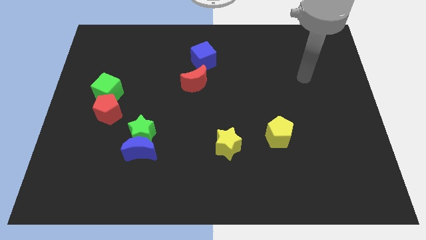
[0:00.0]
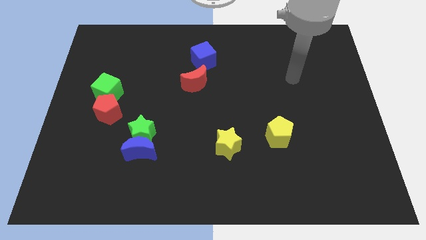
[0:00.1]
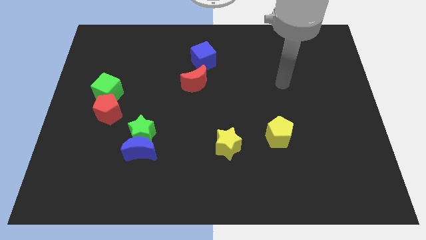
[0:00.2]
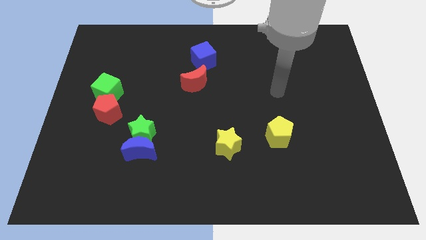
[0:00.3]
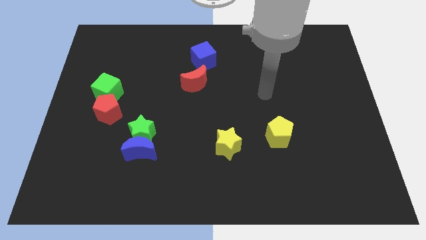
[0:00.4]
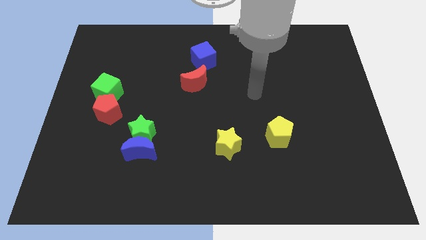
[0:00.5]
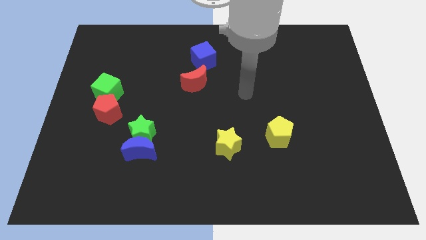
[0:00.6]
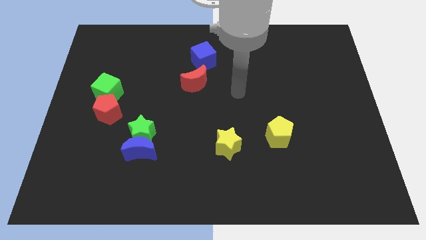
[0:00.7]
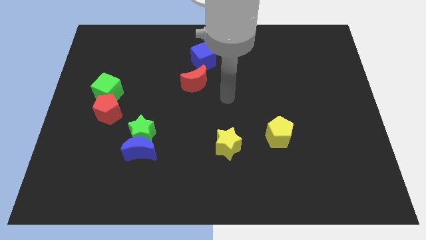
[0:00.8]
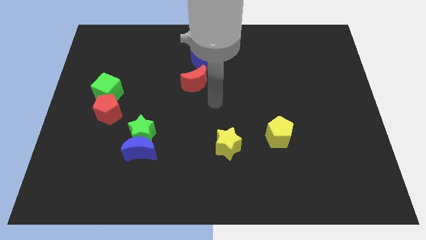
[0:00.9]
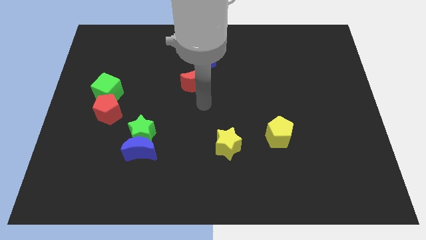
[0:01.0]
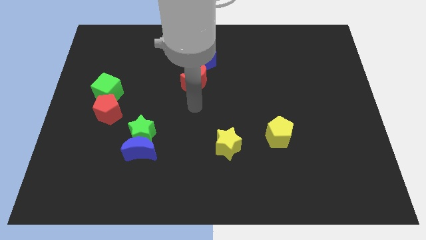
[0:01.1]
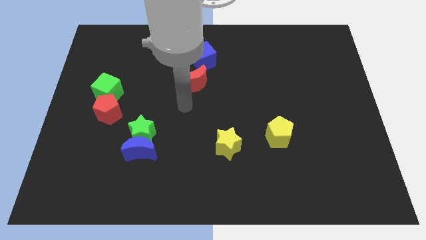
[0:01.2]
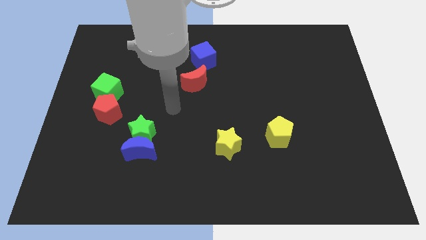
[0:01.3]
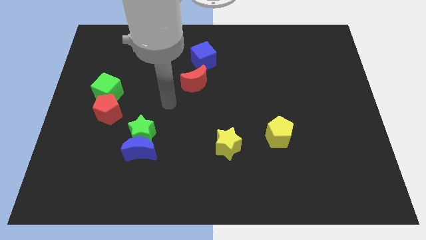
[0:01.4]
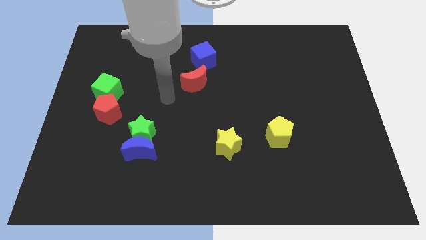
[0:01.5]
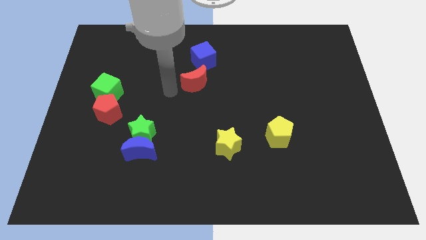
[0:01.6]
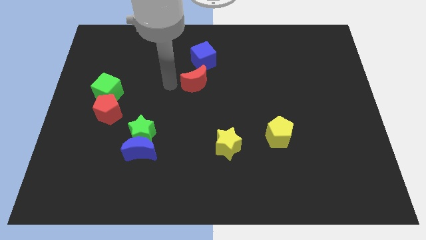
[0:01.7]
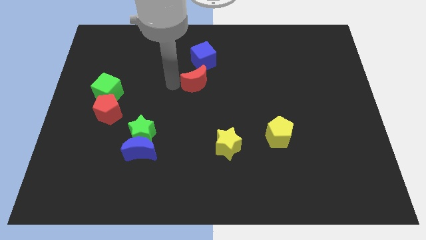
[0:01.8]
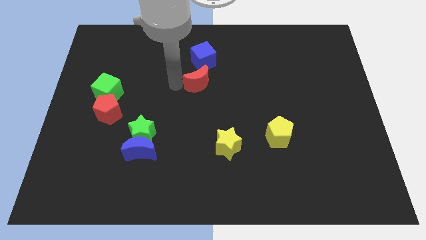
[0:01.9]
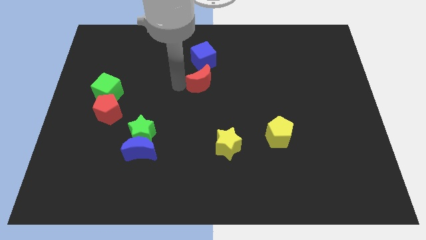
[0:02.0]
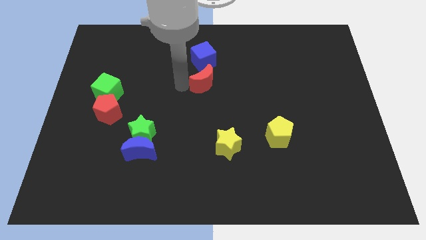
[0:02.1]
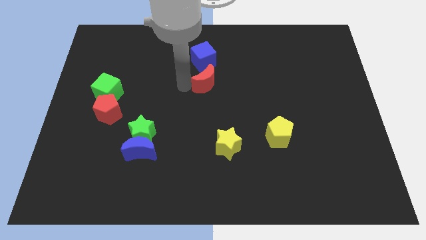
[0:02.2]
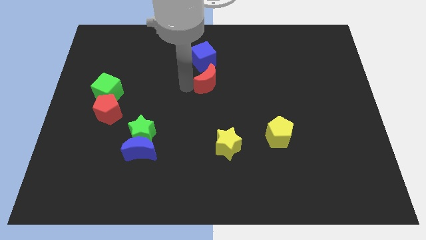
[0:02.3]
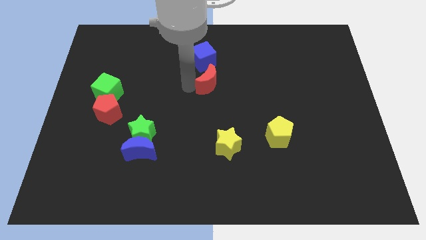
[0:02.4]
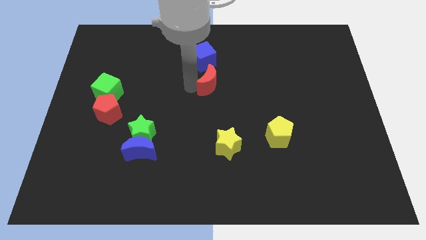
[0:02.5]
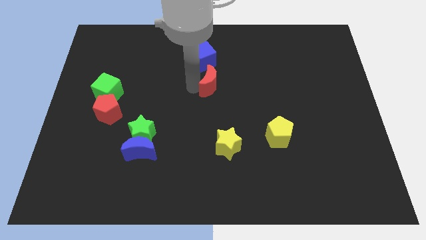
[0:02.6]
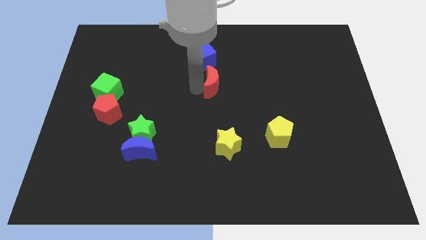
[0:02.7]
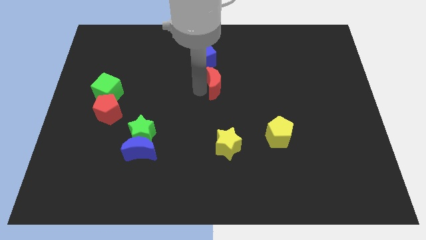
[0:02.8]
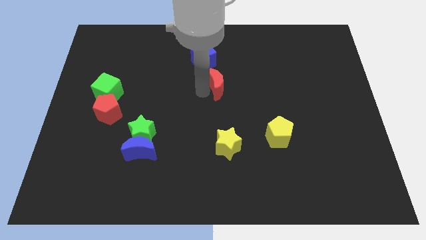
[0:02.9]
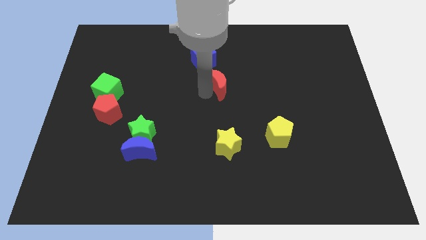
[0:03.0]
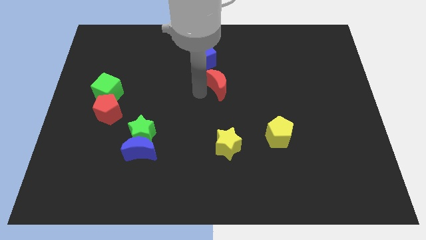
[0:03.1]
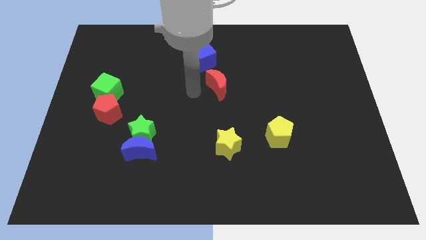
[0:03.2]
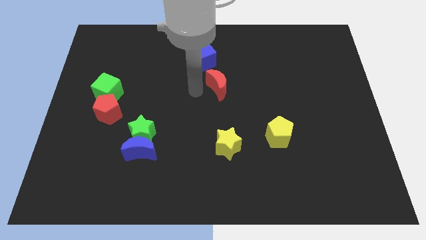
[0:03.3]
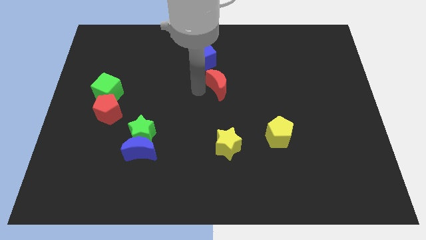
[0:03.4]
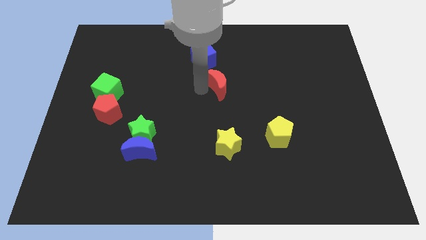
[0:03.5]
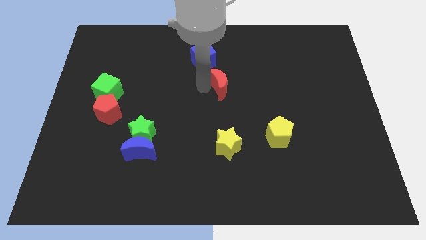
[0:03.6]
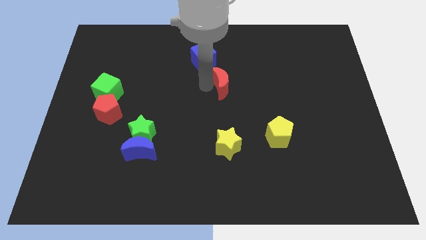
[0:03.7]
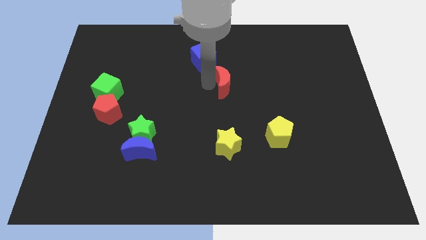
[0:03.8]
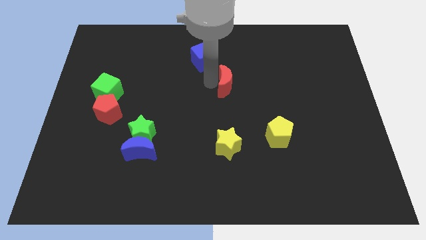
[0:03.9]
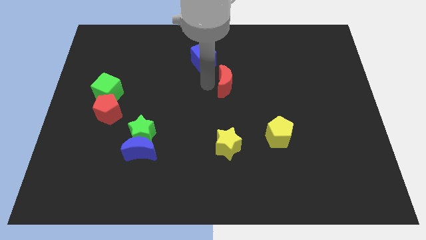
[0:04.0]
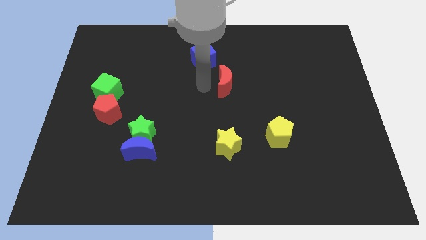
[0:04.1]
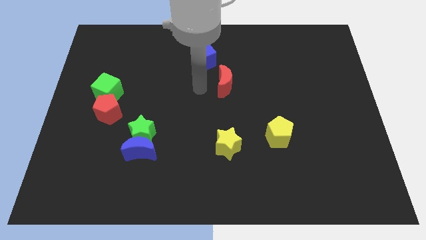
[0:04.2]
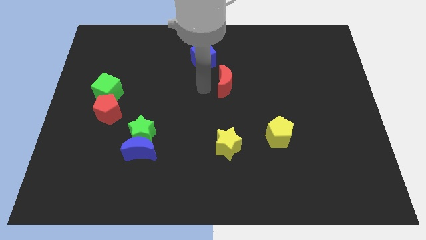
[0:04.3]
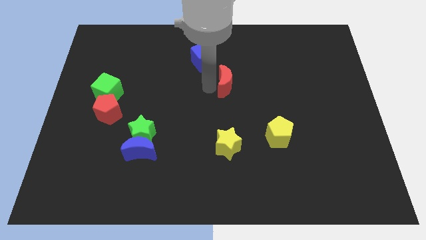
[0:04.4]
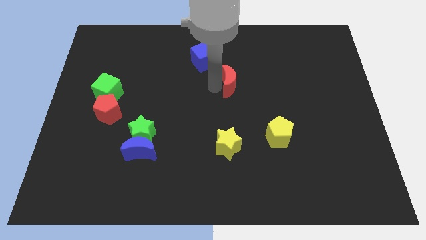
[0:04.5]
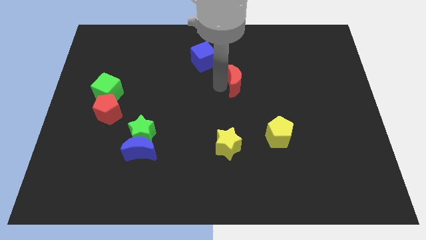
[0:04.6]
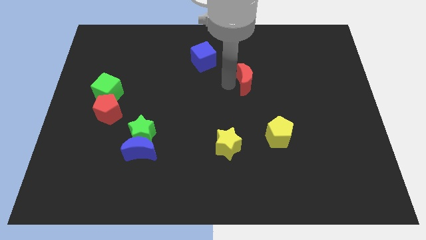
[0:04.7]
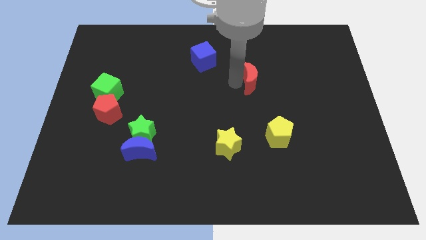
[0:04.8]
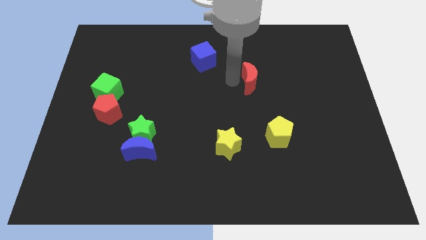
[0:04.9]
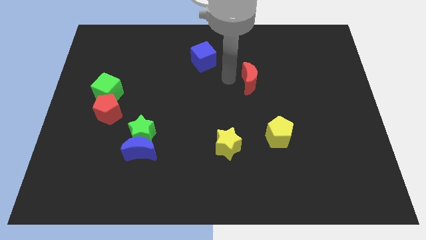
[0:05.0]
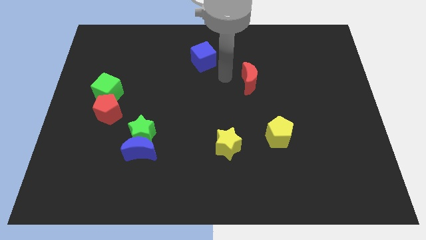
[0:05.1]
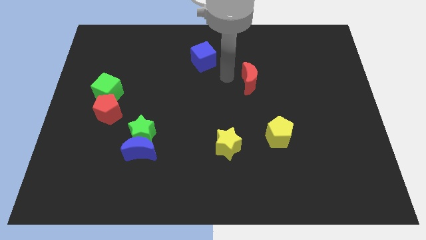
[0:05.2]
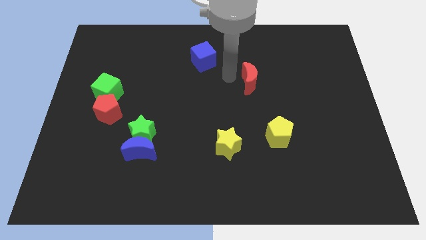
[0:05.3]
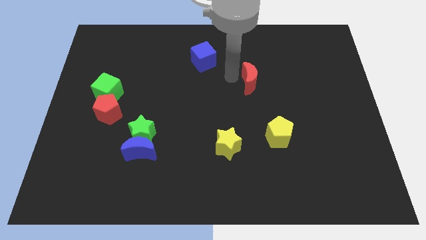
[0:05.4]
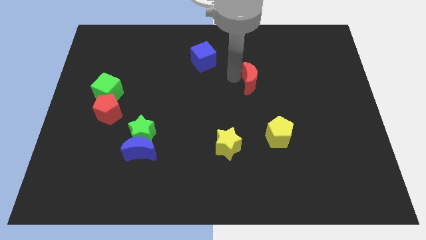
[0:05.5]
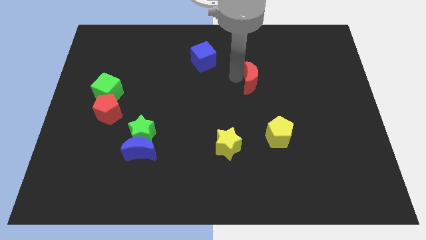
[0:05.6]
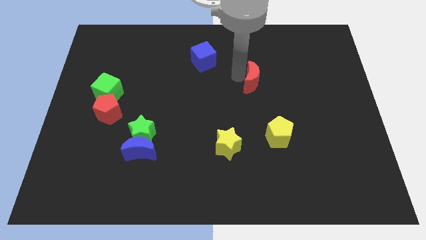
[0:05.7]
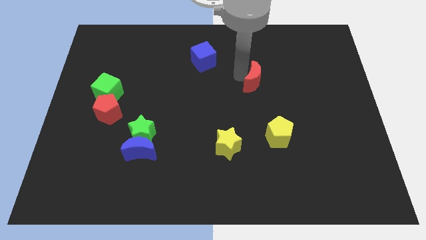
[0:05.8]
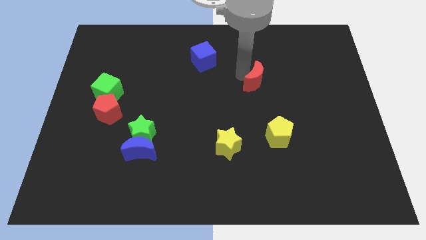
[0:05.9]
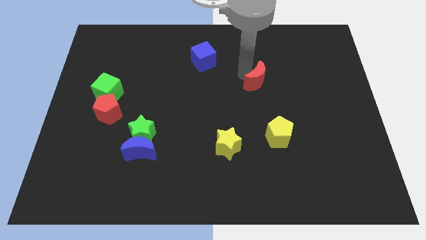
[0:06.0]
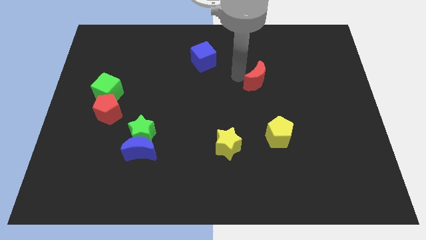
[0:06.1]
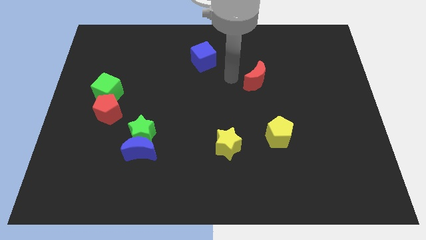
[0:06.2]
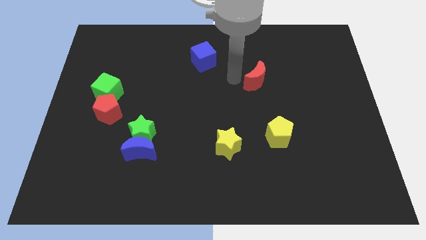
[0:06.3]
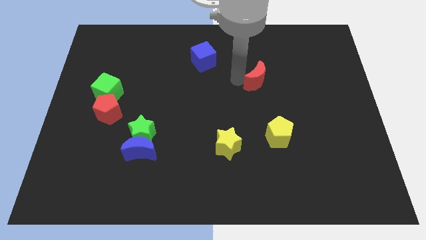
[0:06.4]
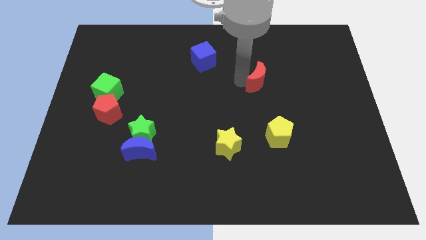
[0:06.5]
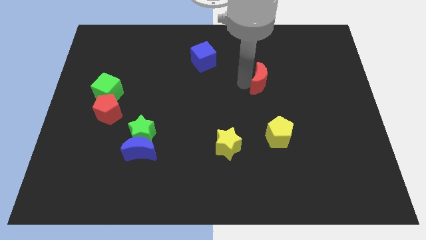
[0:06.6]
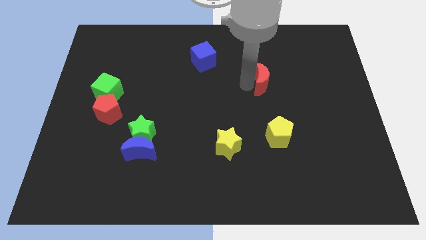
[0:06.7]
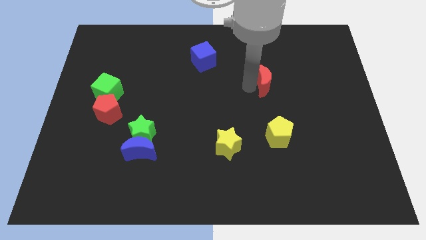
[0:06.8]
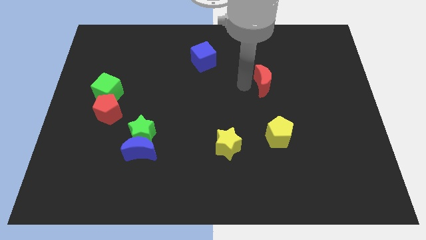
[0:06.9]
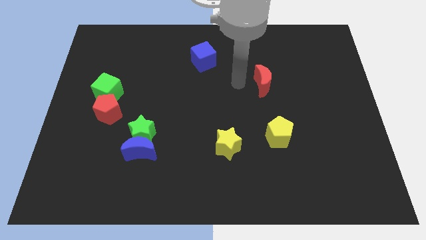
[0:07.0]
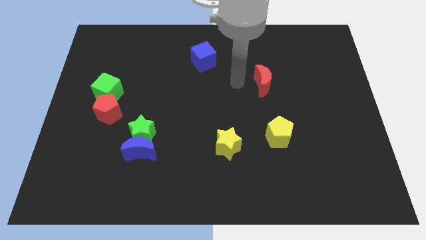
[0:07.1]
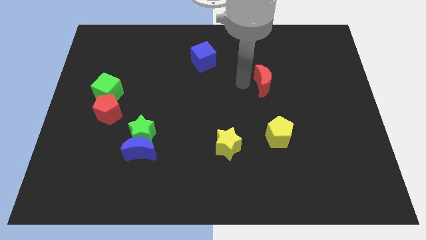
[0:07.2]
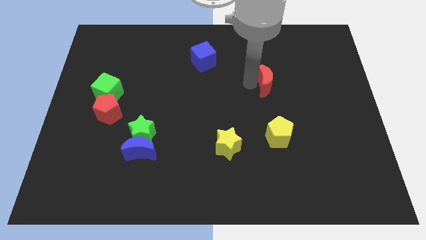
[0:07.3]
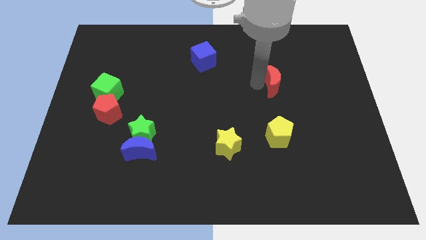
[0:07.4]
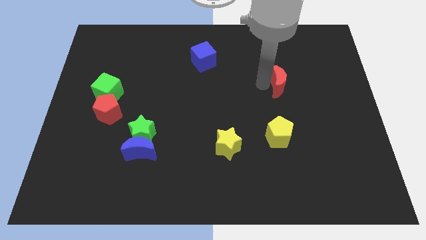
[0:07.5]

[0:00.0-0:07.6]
push the red moon to the right

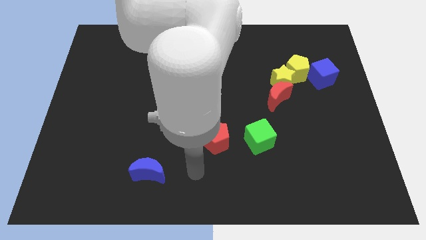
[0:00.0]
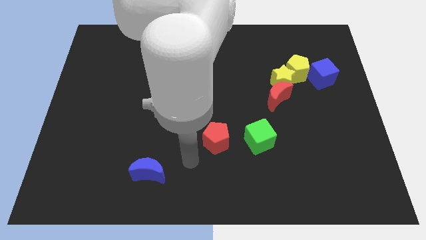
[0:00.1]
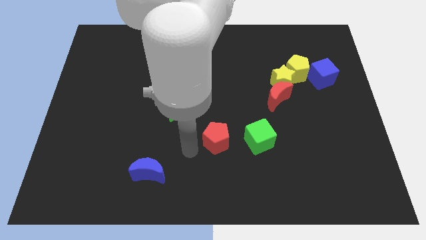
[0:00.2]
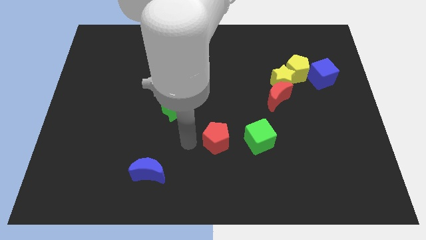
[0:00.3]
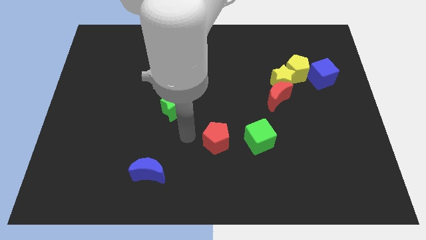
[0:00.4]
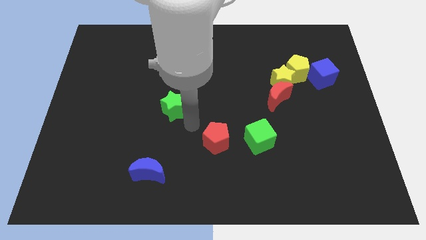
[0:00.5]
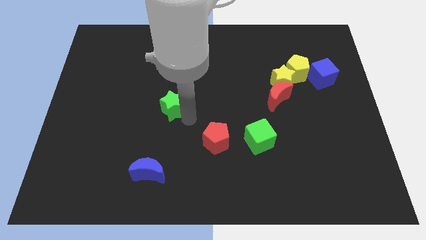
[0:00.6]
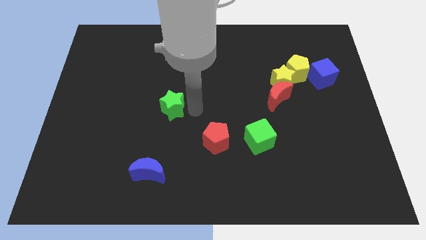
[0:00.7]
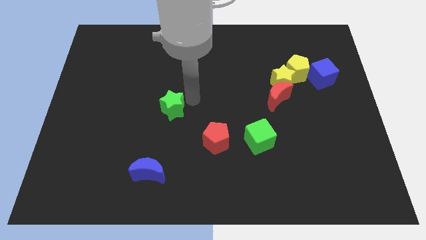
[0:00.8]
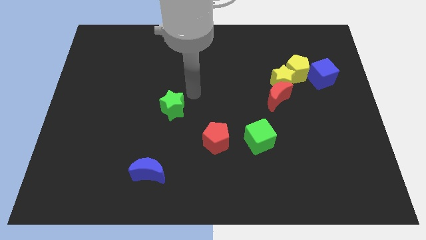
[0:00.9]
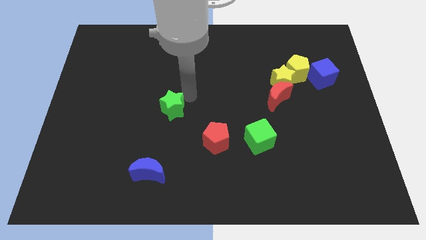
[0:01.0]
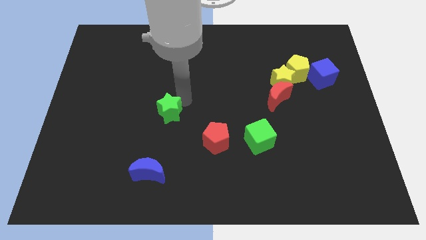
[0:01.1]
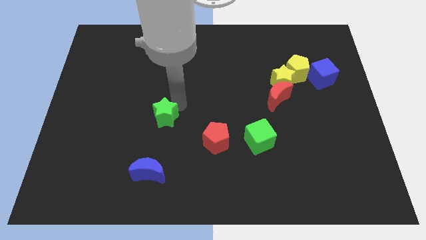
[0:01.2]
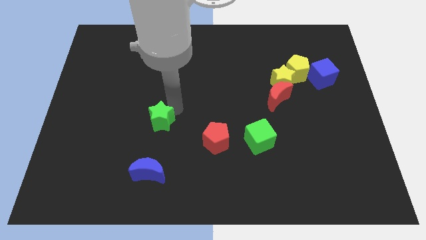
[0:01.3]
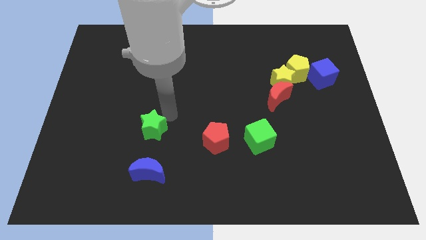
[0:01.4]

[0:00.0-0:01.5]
slightly push the green star diagonally down and left
